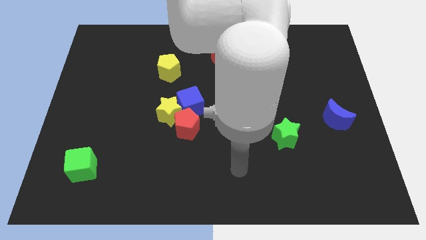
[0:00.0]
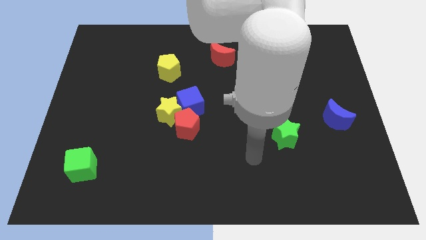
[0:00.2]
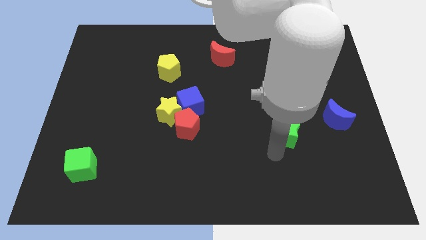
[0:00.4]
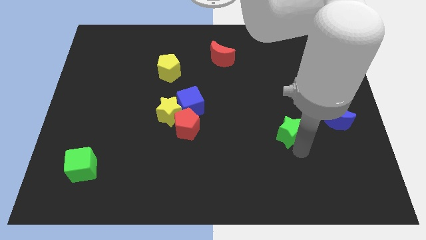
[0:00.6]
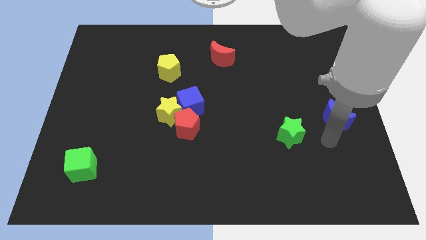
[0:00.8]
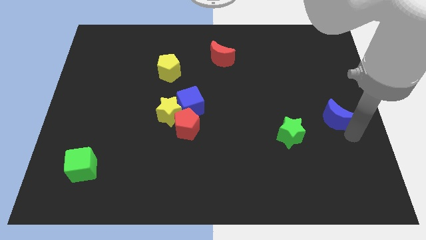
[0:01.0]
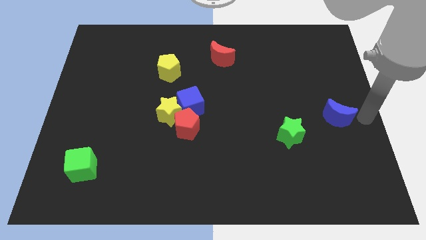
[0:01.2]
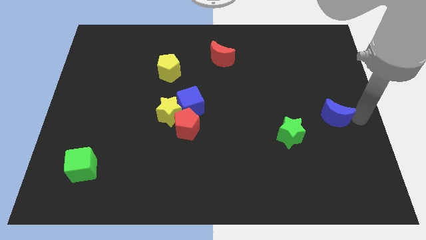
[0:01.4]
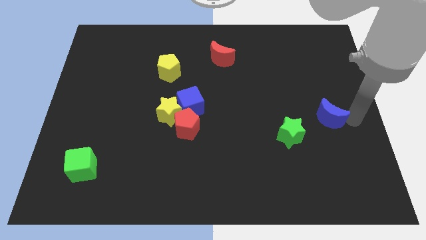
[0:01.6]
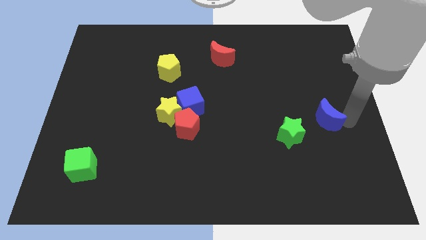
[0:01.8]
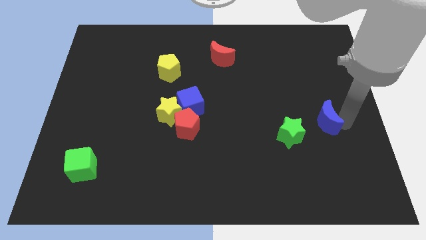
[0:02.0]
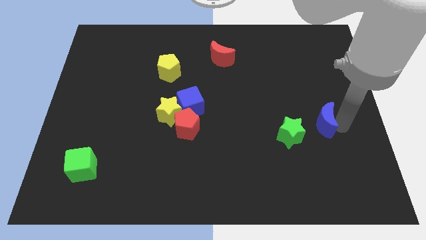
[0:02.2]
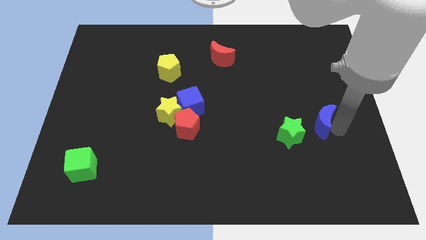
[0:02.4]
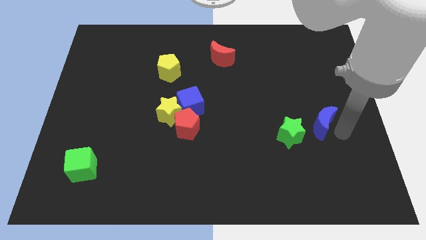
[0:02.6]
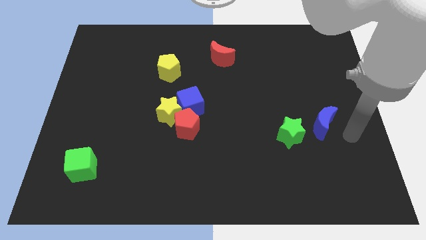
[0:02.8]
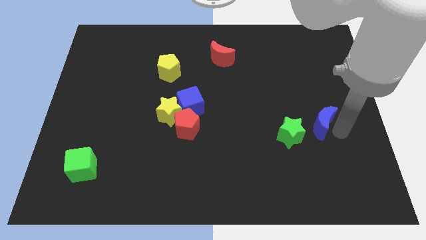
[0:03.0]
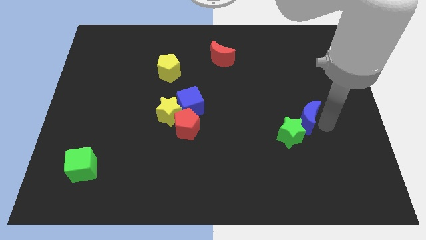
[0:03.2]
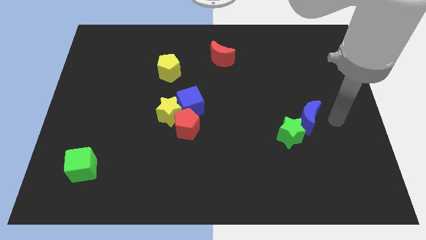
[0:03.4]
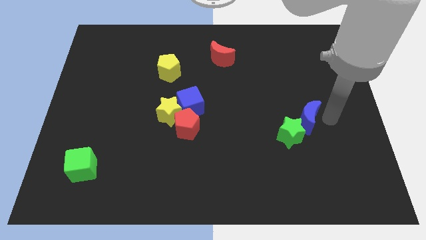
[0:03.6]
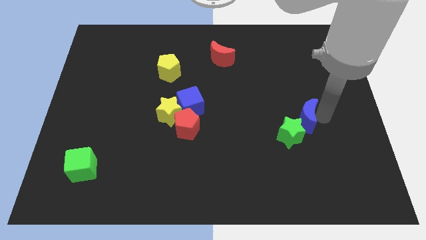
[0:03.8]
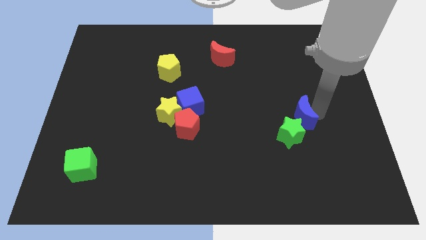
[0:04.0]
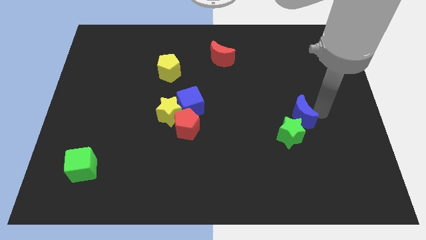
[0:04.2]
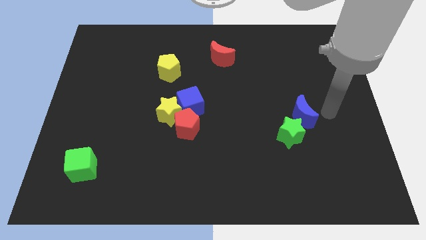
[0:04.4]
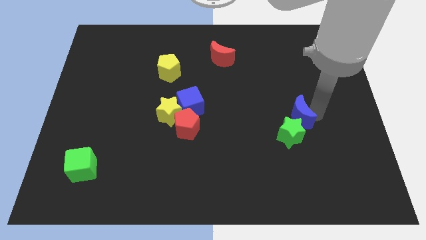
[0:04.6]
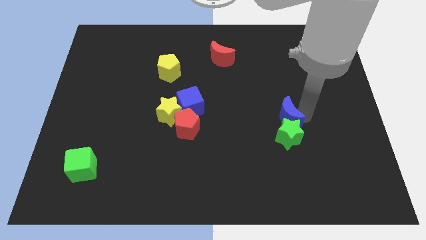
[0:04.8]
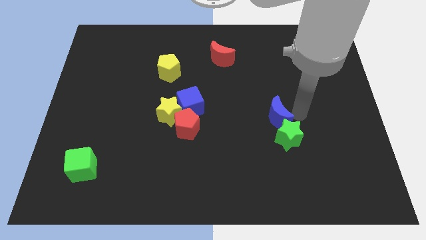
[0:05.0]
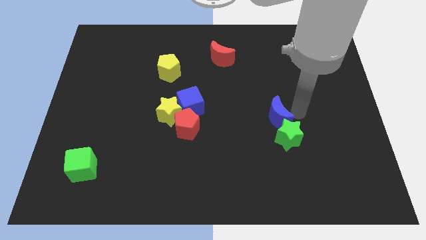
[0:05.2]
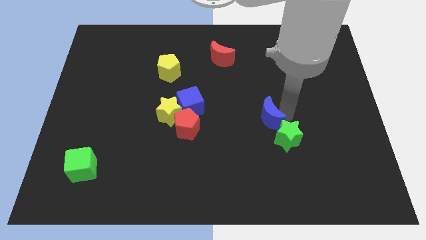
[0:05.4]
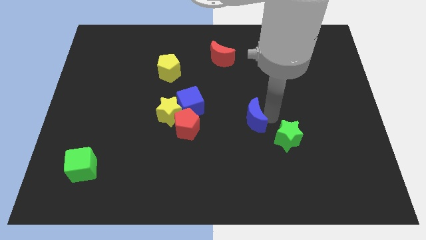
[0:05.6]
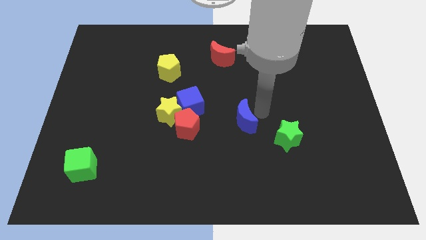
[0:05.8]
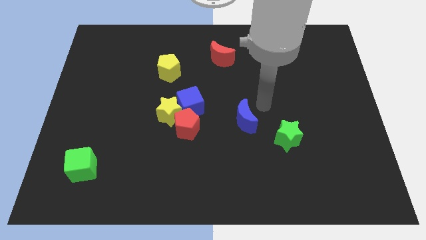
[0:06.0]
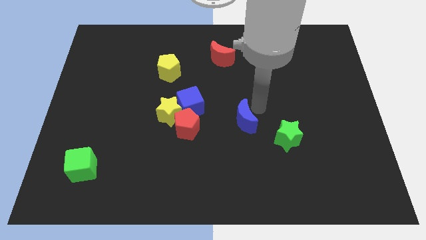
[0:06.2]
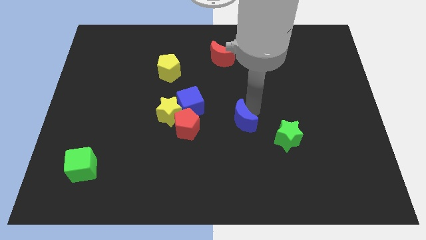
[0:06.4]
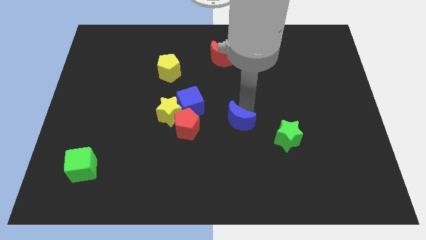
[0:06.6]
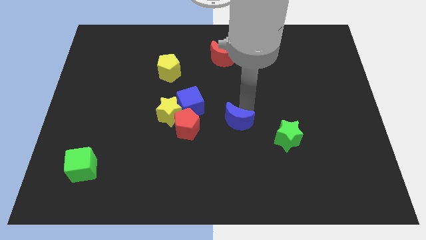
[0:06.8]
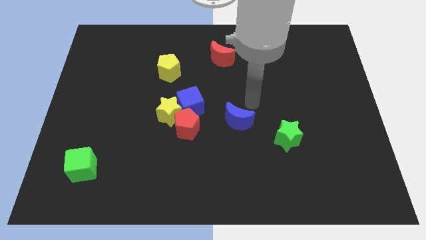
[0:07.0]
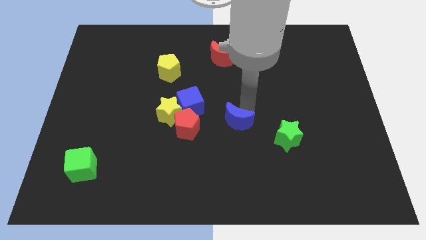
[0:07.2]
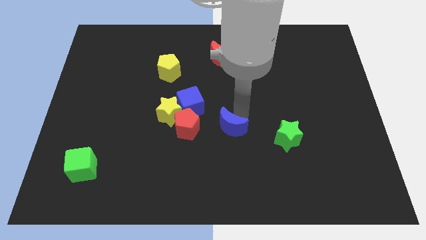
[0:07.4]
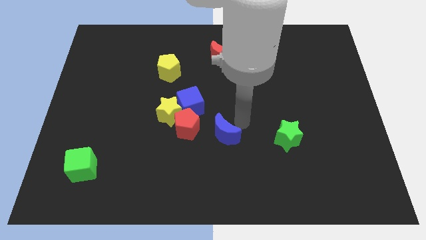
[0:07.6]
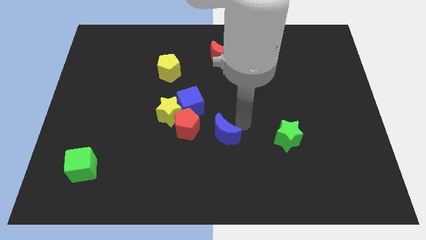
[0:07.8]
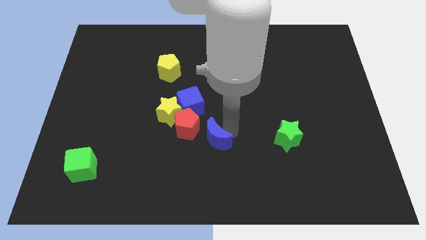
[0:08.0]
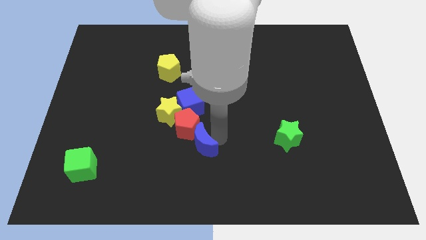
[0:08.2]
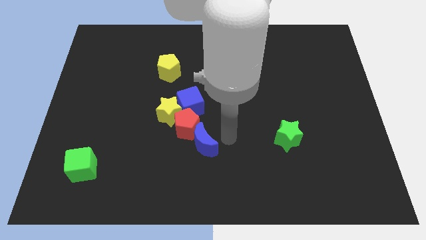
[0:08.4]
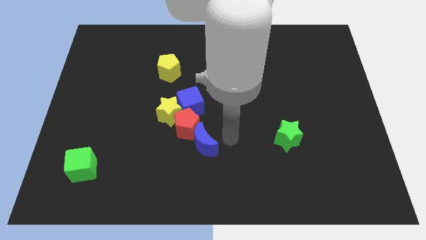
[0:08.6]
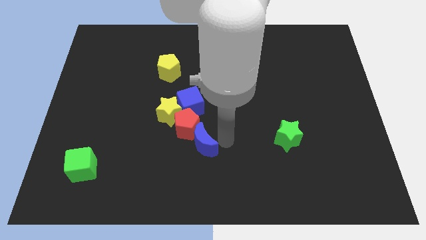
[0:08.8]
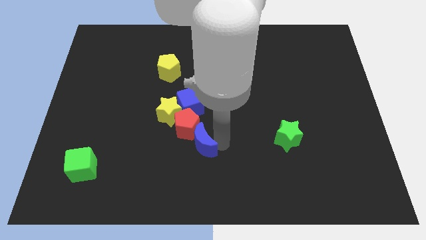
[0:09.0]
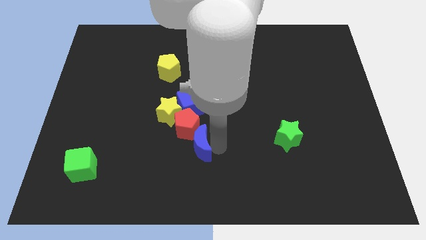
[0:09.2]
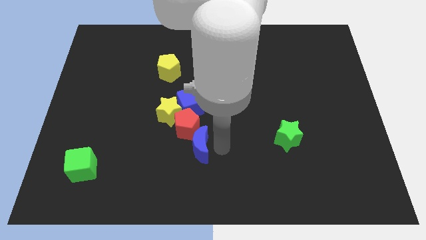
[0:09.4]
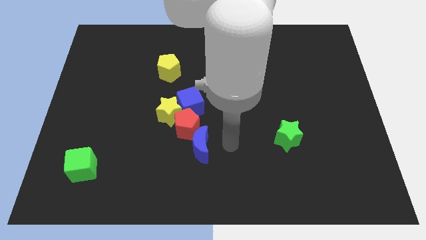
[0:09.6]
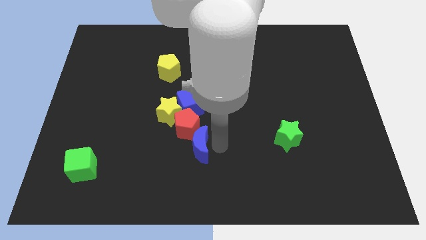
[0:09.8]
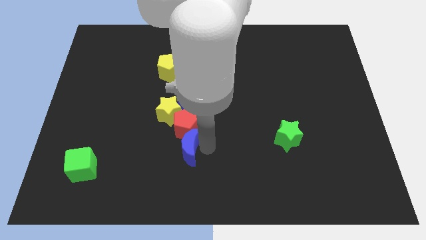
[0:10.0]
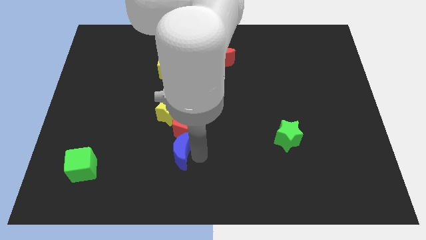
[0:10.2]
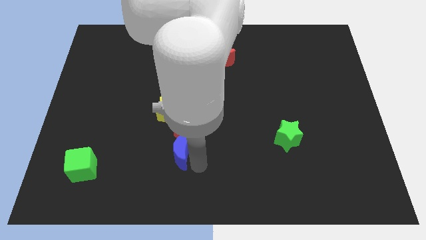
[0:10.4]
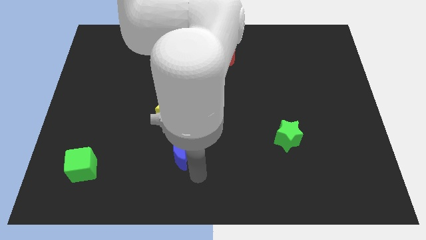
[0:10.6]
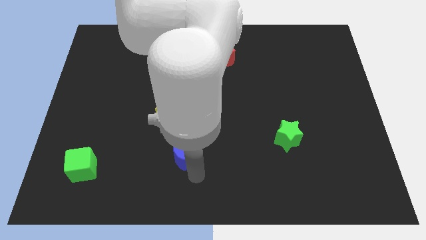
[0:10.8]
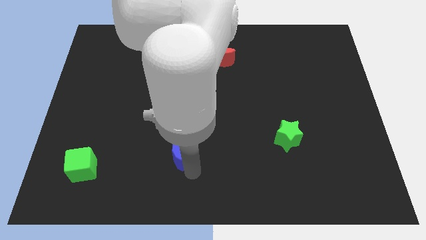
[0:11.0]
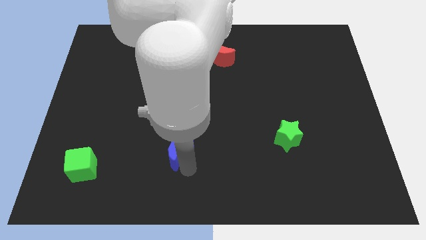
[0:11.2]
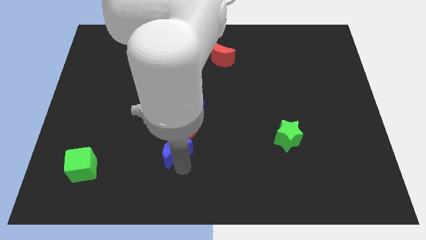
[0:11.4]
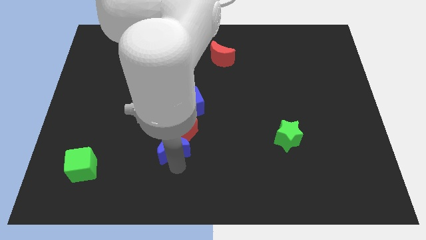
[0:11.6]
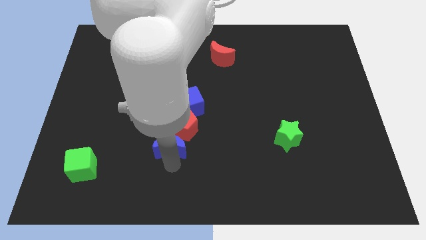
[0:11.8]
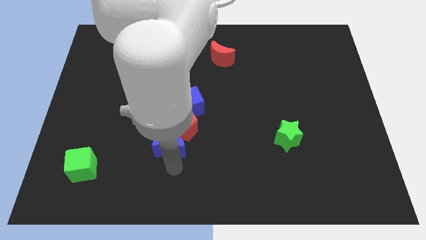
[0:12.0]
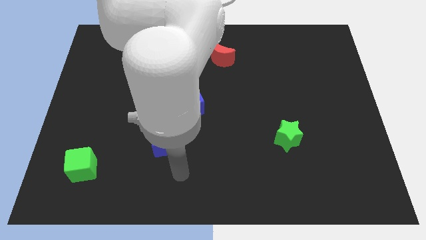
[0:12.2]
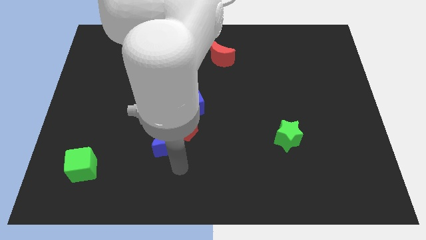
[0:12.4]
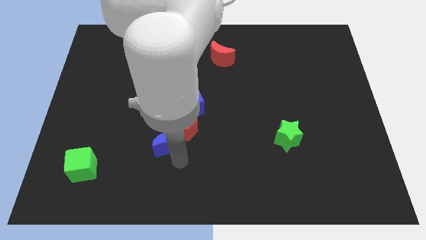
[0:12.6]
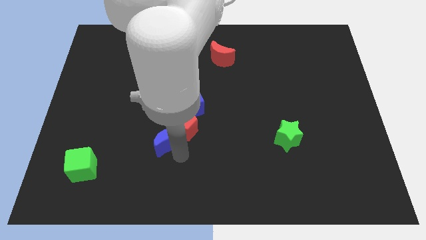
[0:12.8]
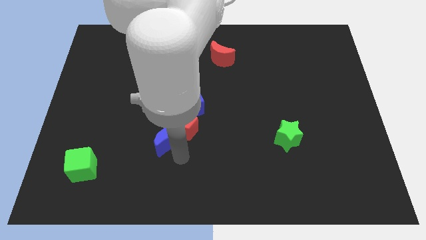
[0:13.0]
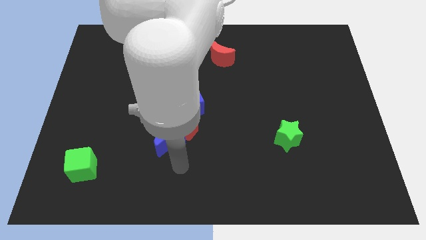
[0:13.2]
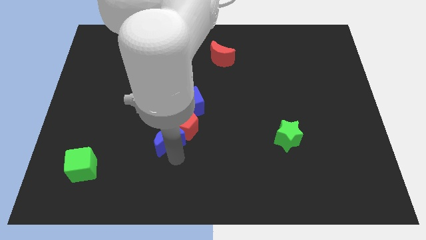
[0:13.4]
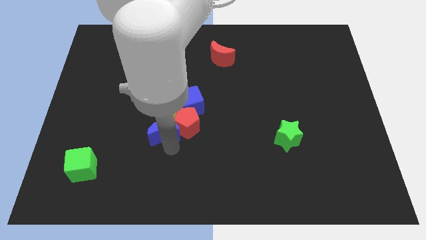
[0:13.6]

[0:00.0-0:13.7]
slide the blue moon close to the yellow star

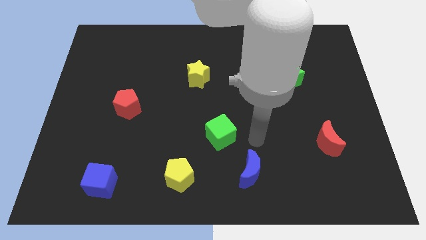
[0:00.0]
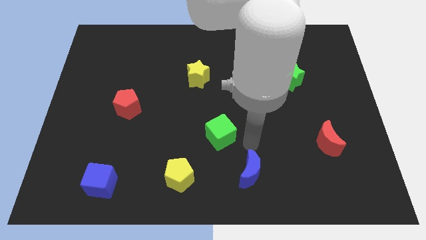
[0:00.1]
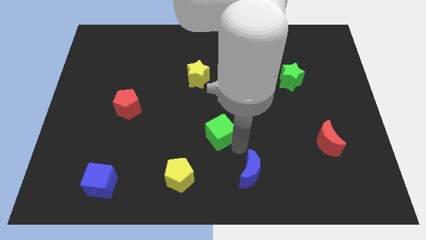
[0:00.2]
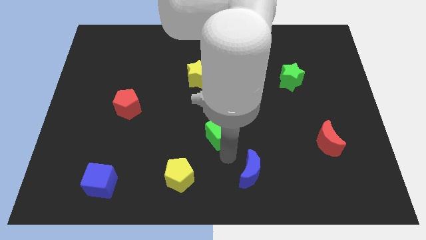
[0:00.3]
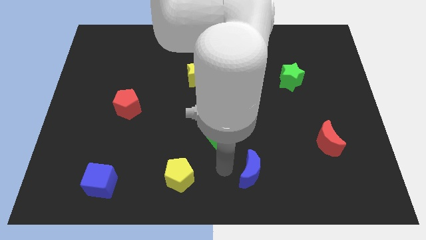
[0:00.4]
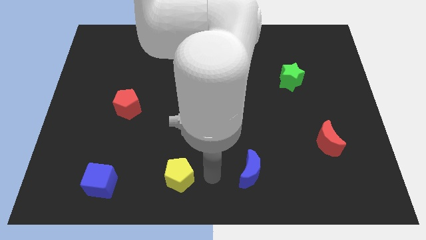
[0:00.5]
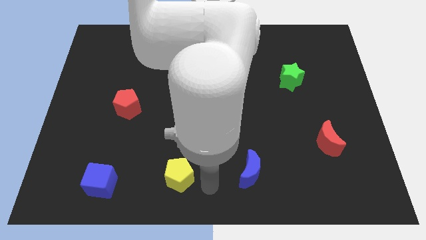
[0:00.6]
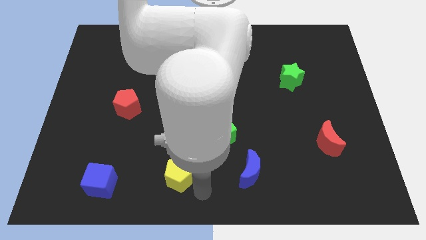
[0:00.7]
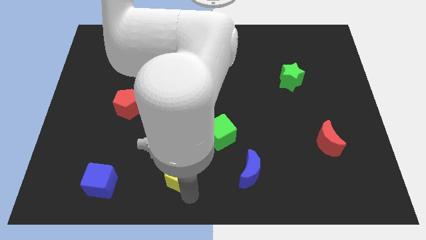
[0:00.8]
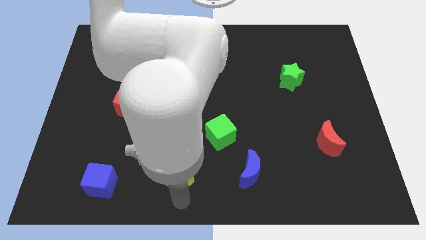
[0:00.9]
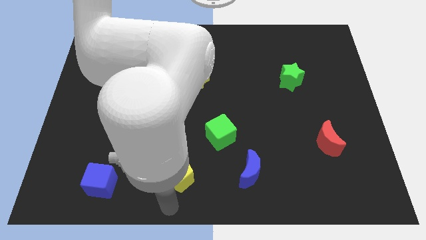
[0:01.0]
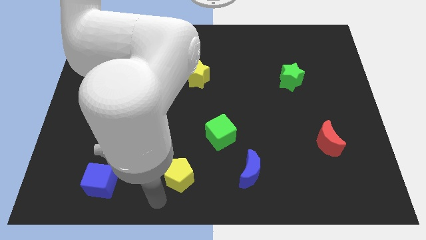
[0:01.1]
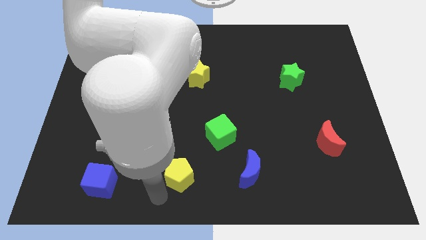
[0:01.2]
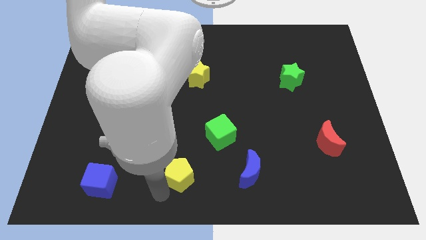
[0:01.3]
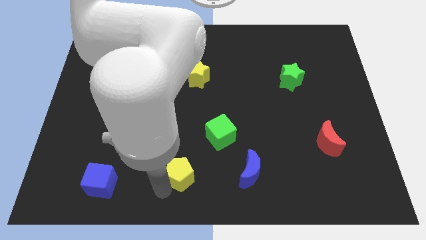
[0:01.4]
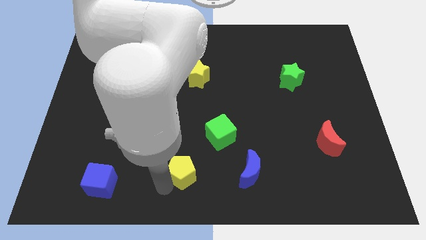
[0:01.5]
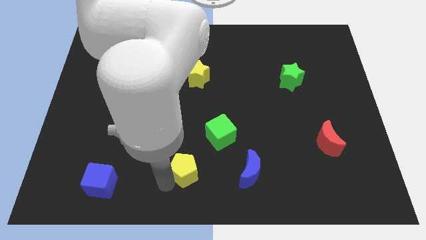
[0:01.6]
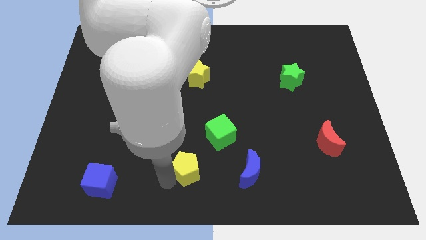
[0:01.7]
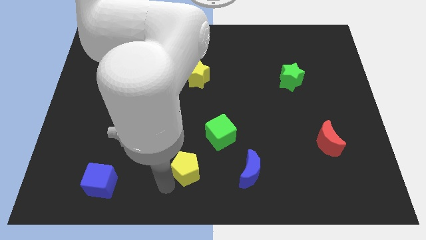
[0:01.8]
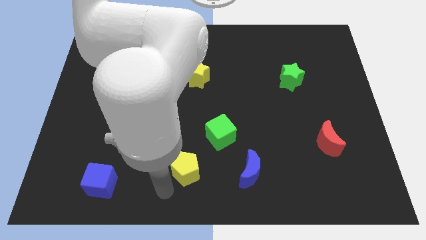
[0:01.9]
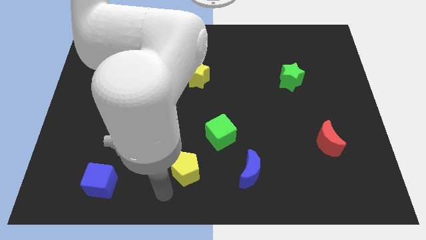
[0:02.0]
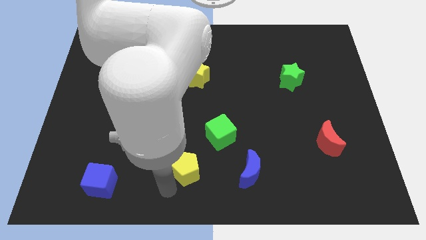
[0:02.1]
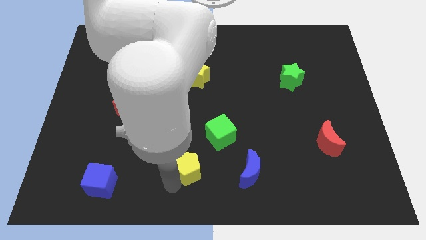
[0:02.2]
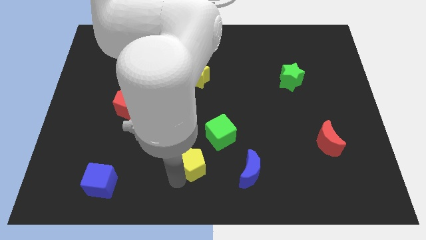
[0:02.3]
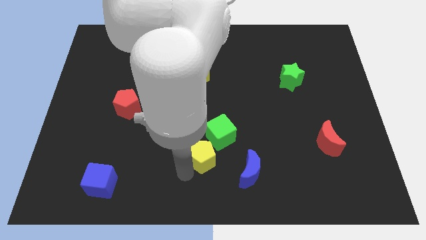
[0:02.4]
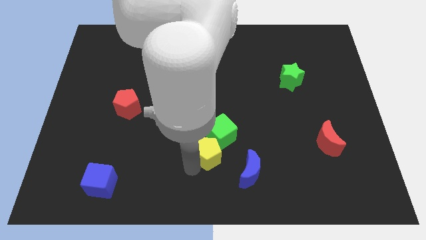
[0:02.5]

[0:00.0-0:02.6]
put the yellow pentagon to the green cube
